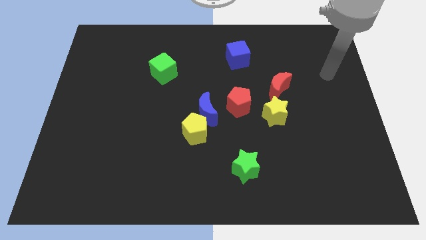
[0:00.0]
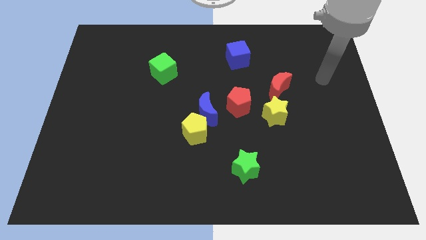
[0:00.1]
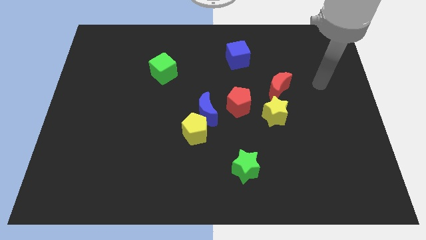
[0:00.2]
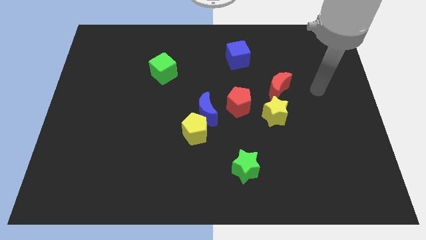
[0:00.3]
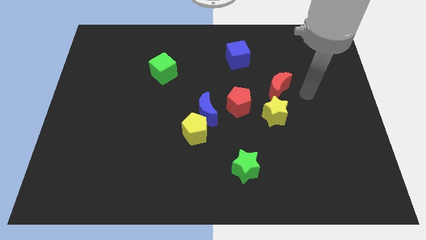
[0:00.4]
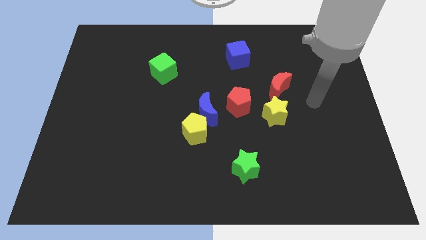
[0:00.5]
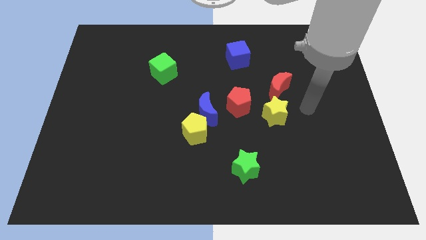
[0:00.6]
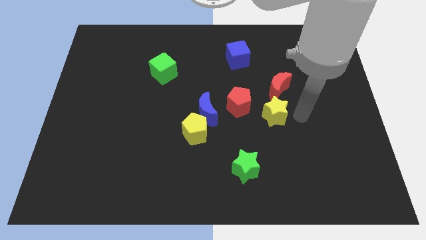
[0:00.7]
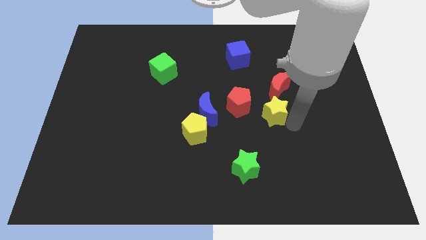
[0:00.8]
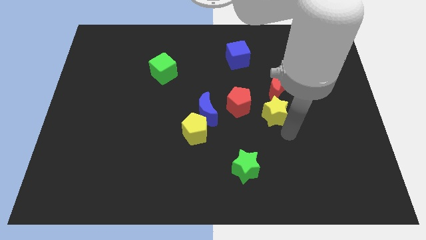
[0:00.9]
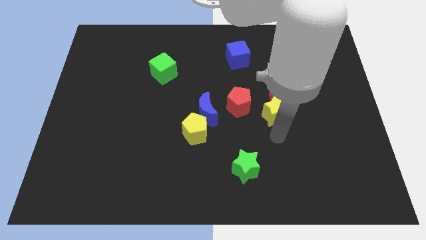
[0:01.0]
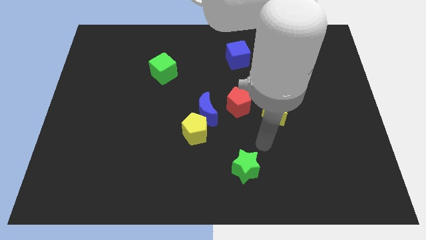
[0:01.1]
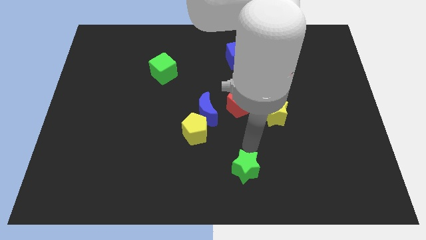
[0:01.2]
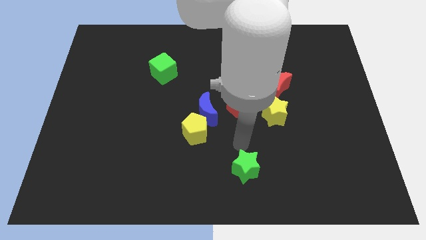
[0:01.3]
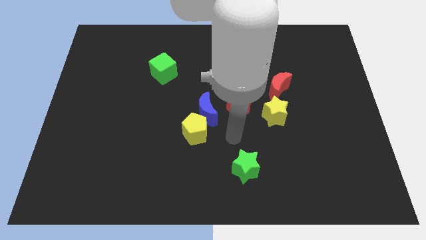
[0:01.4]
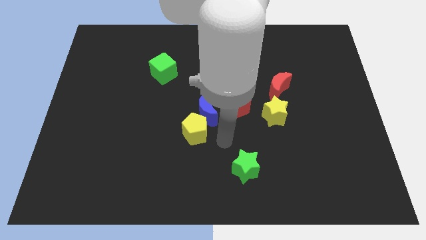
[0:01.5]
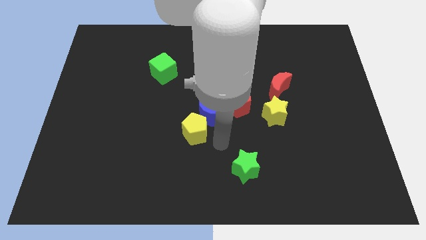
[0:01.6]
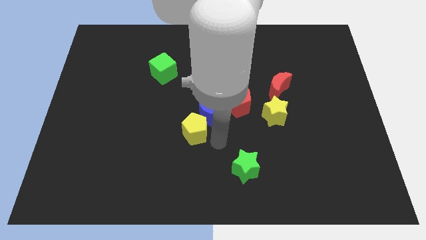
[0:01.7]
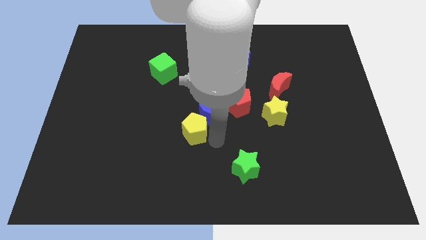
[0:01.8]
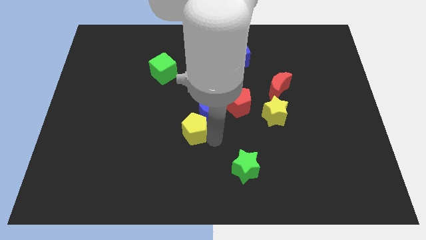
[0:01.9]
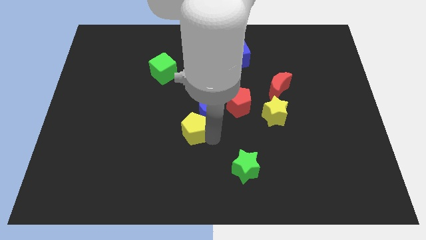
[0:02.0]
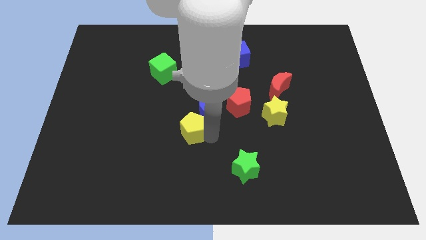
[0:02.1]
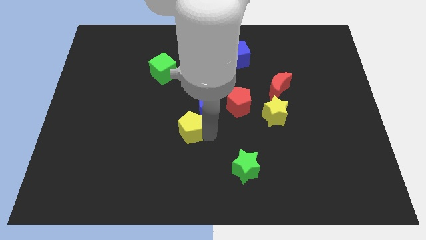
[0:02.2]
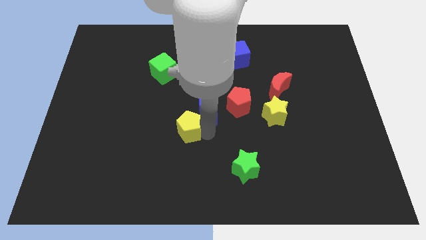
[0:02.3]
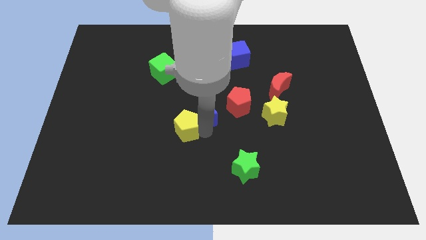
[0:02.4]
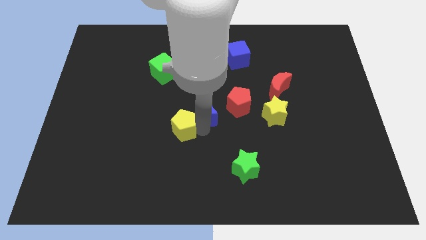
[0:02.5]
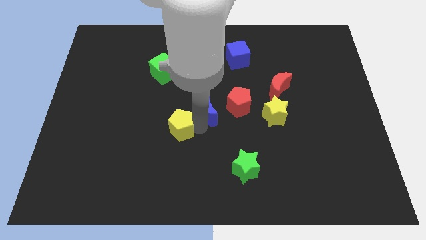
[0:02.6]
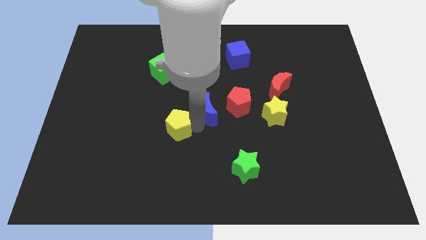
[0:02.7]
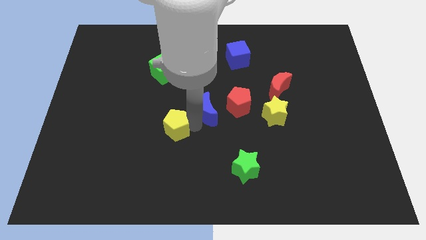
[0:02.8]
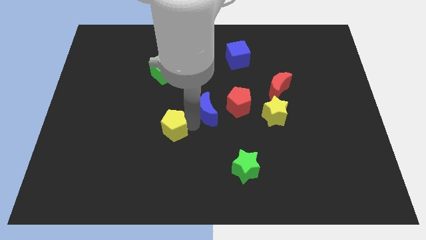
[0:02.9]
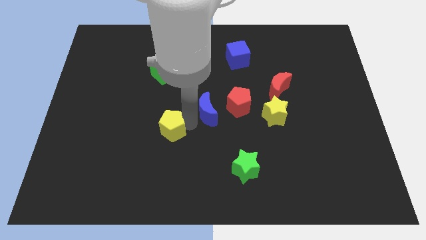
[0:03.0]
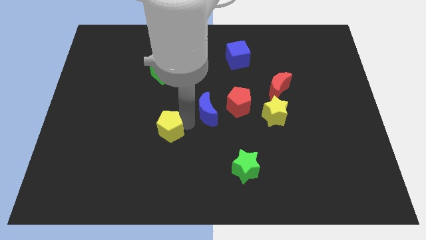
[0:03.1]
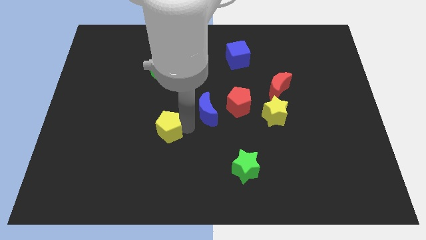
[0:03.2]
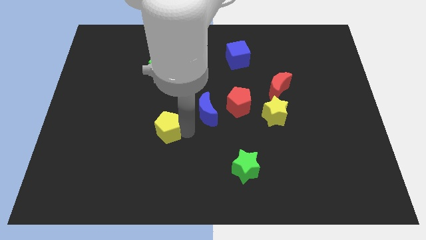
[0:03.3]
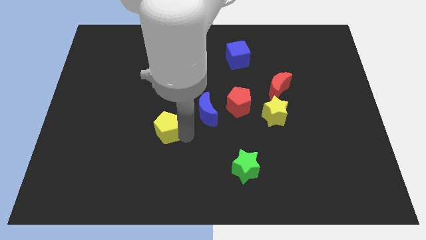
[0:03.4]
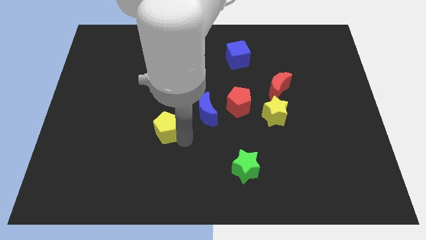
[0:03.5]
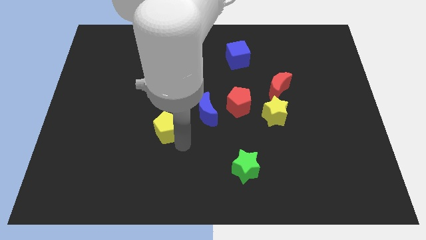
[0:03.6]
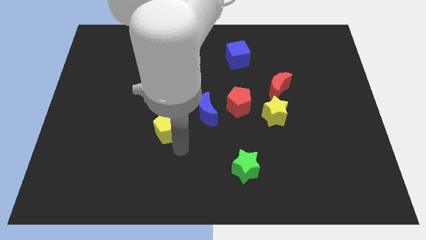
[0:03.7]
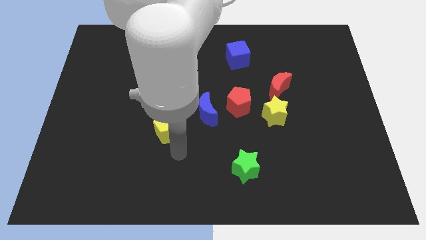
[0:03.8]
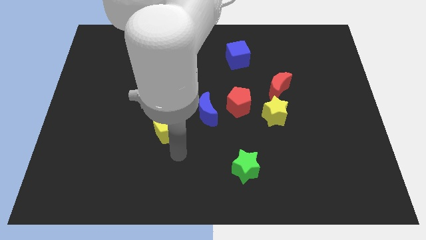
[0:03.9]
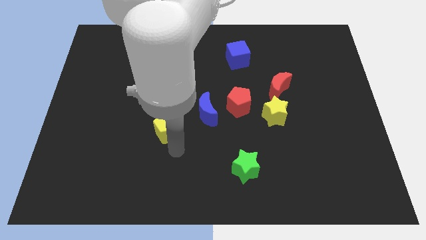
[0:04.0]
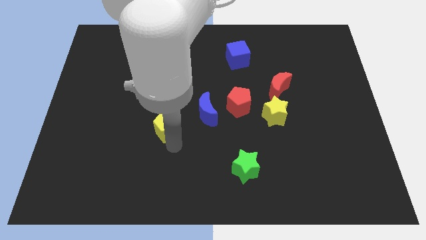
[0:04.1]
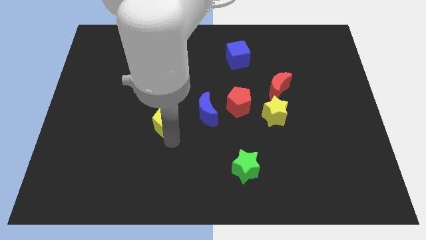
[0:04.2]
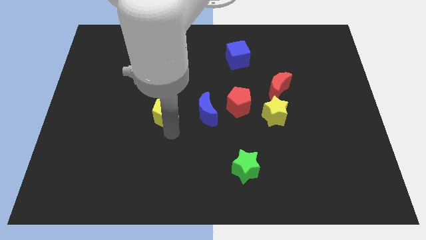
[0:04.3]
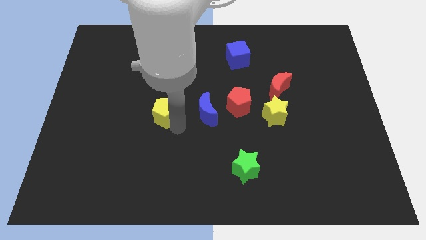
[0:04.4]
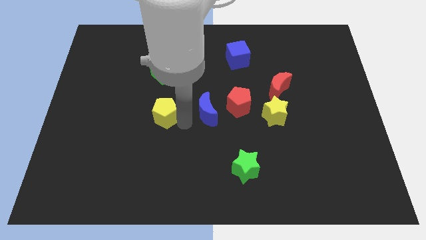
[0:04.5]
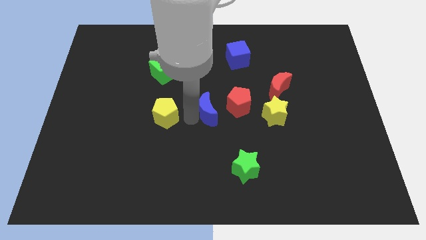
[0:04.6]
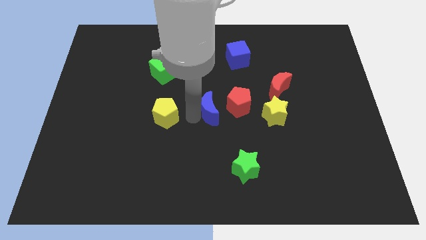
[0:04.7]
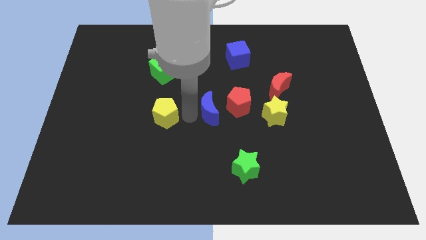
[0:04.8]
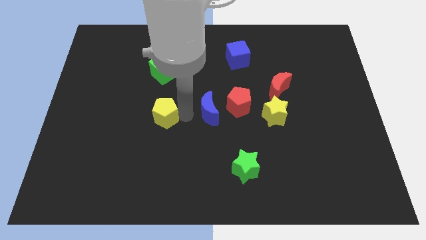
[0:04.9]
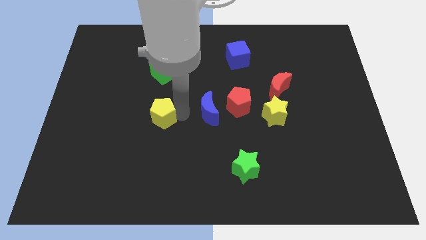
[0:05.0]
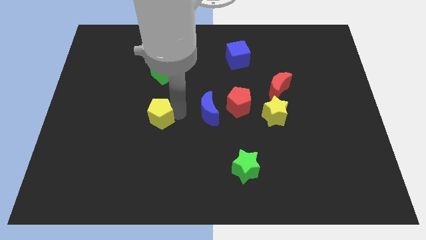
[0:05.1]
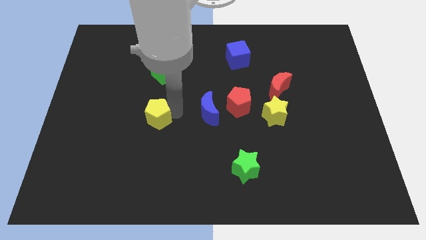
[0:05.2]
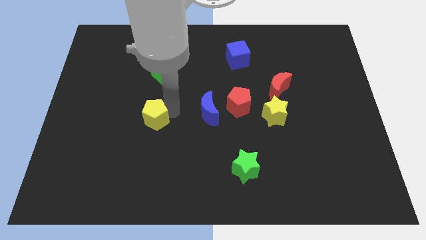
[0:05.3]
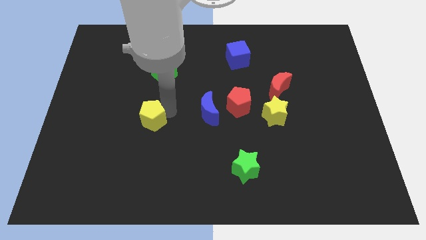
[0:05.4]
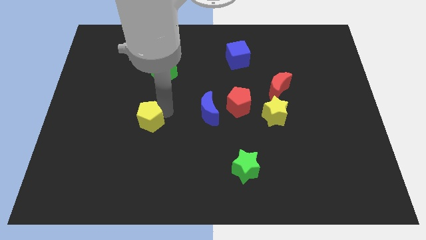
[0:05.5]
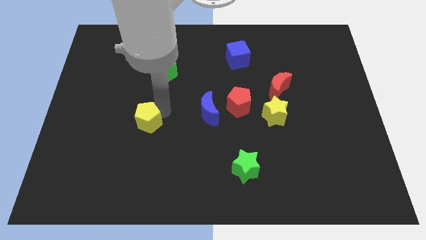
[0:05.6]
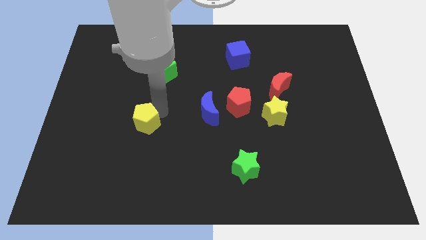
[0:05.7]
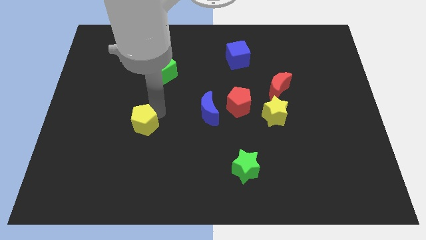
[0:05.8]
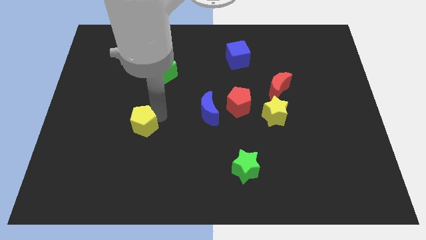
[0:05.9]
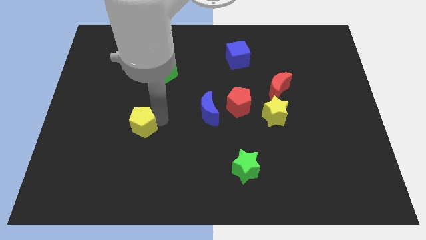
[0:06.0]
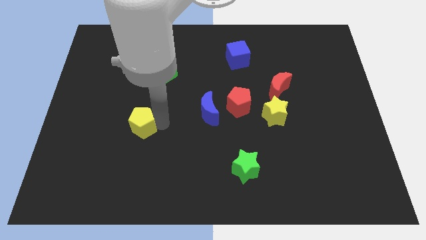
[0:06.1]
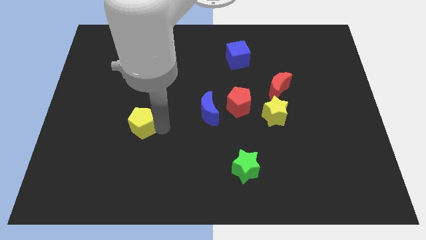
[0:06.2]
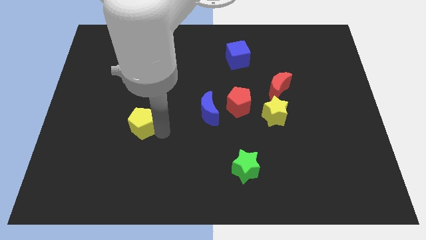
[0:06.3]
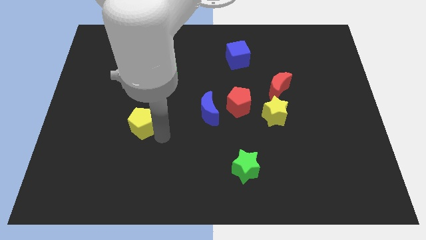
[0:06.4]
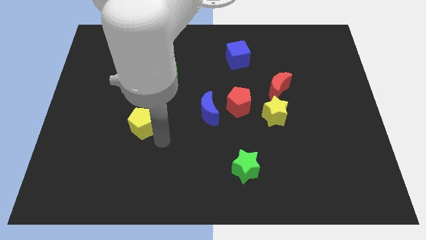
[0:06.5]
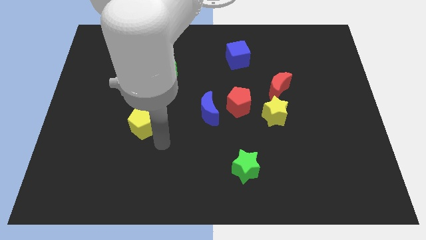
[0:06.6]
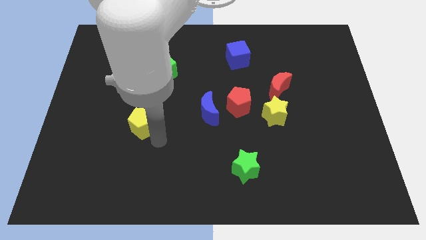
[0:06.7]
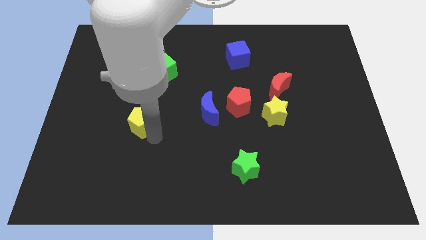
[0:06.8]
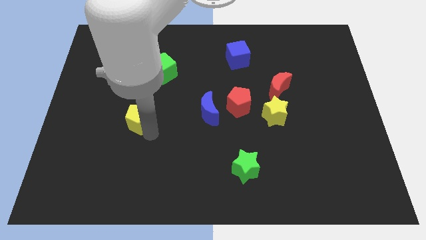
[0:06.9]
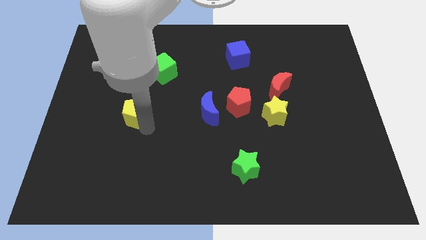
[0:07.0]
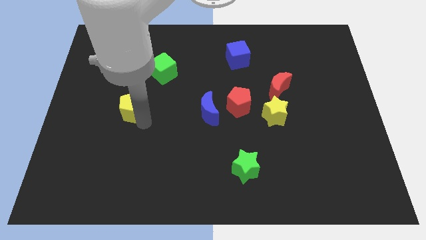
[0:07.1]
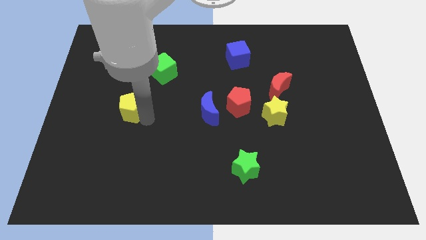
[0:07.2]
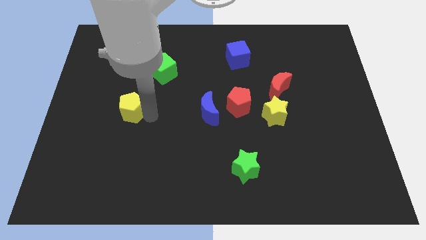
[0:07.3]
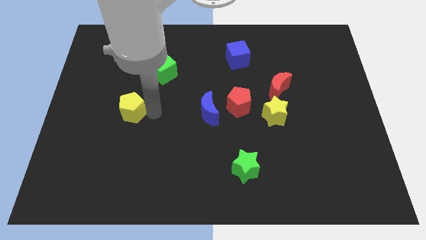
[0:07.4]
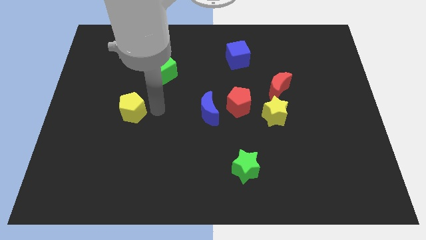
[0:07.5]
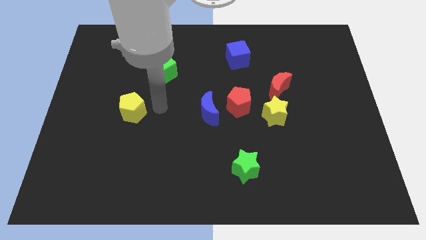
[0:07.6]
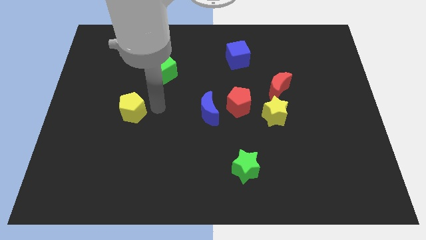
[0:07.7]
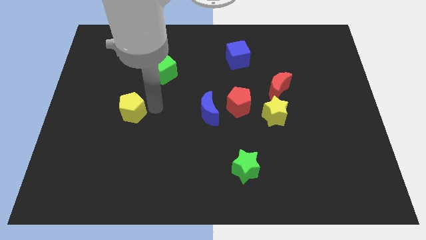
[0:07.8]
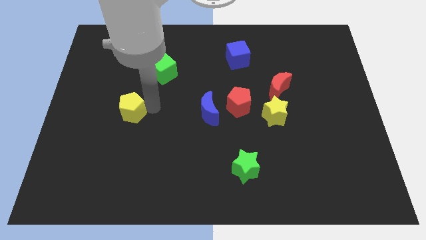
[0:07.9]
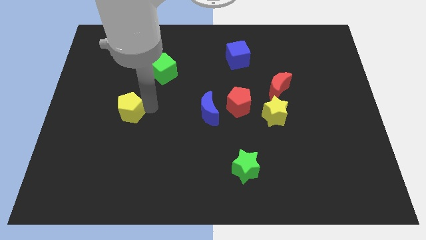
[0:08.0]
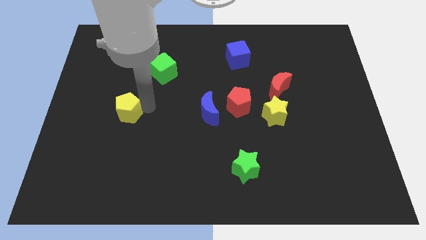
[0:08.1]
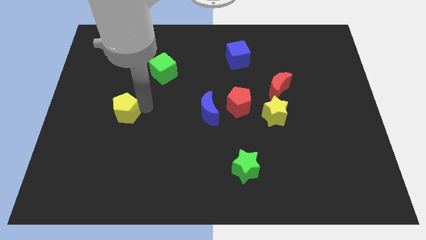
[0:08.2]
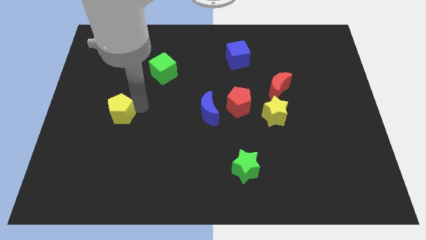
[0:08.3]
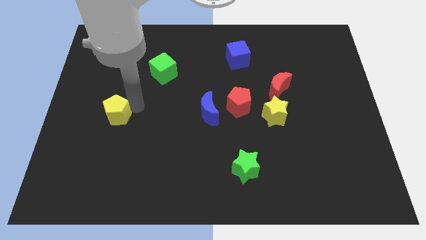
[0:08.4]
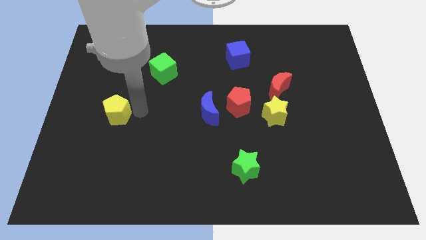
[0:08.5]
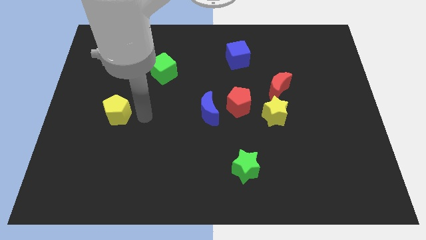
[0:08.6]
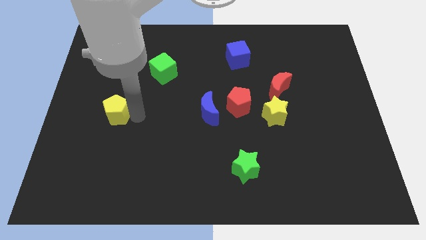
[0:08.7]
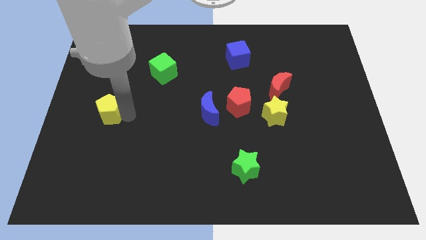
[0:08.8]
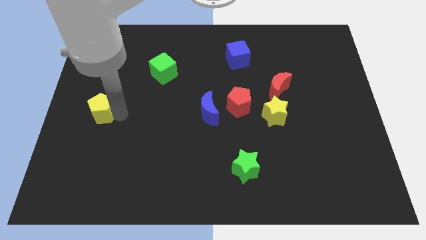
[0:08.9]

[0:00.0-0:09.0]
put the yellow pentagon to the center left
